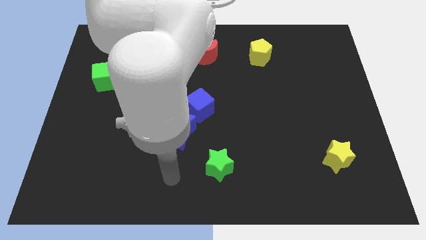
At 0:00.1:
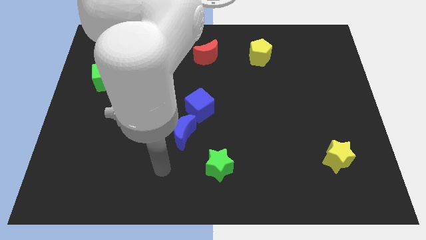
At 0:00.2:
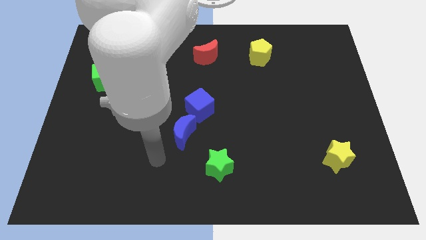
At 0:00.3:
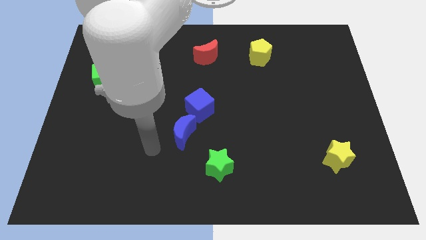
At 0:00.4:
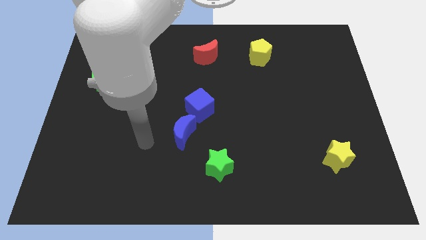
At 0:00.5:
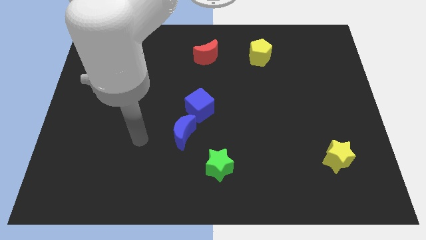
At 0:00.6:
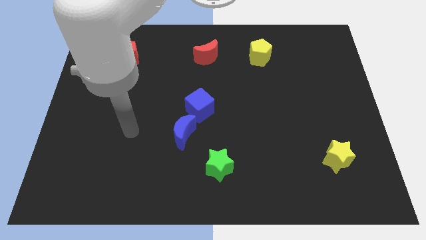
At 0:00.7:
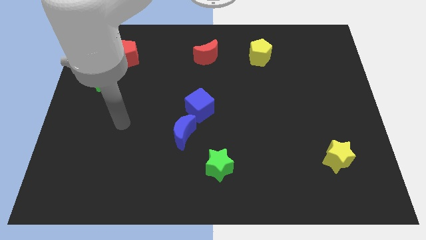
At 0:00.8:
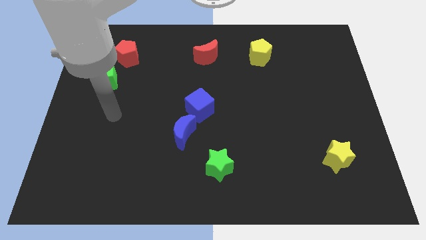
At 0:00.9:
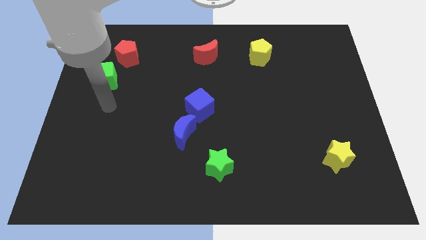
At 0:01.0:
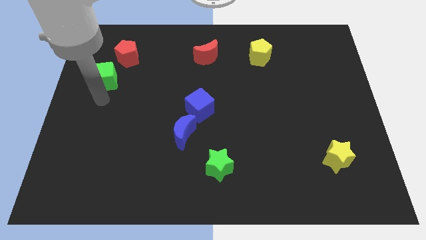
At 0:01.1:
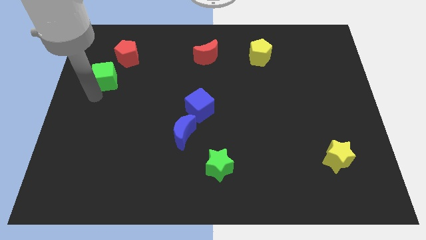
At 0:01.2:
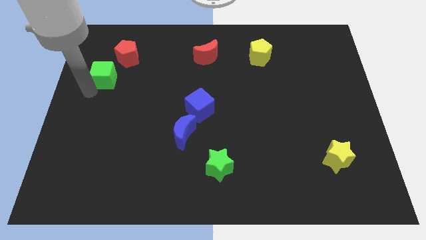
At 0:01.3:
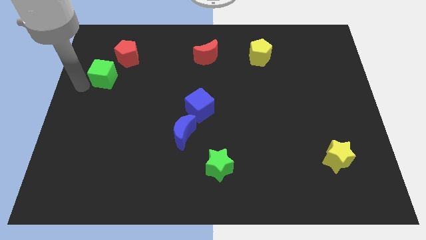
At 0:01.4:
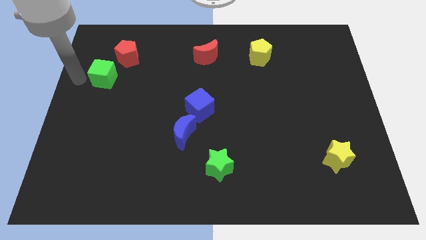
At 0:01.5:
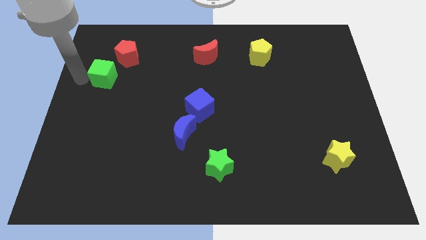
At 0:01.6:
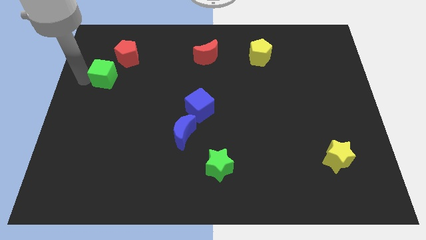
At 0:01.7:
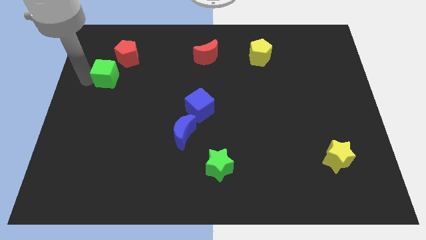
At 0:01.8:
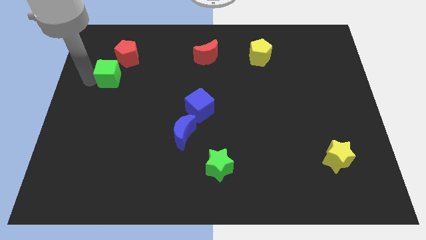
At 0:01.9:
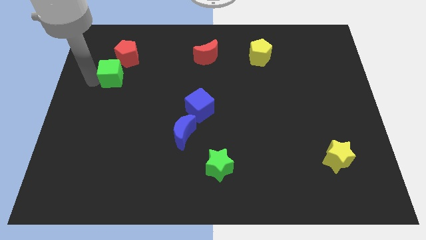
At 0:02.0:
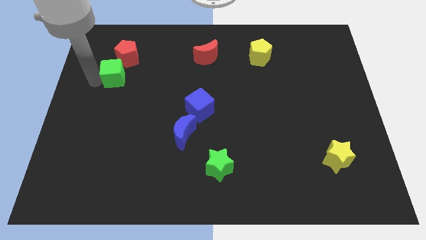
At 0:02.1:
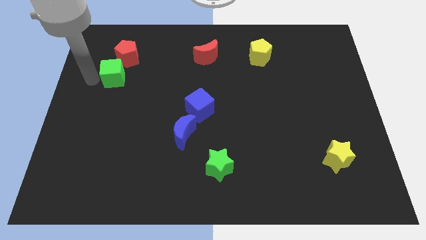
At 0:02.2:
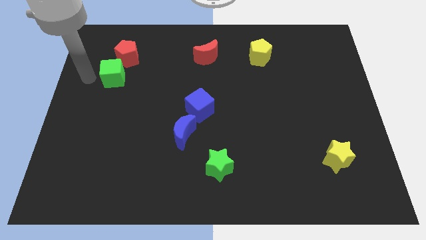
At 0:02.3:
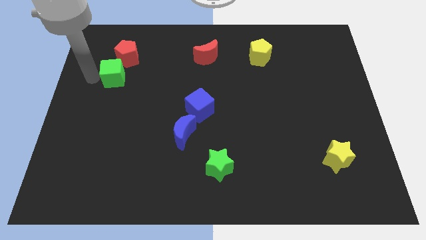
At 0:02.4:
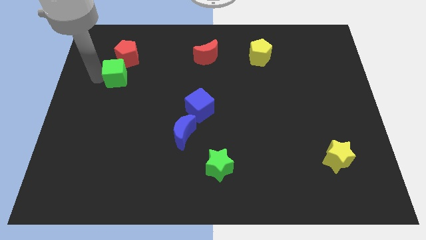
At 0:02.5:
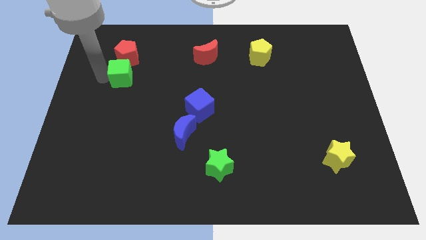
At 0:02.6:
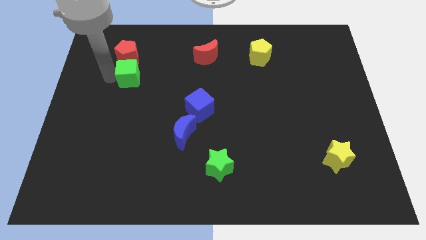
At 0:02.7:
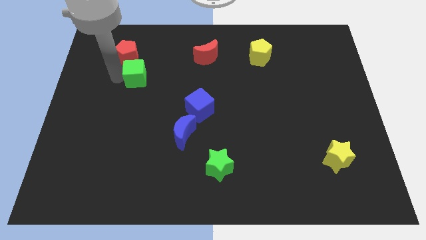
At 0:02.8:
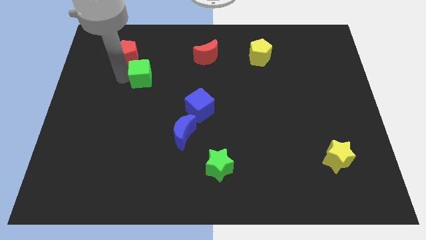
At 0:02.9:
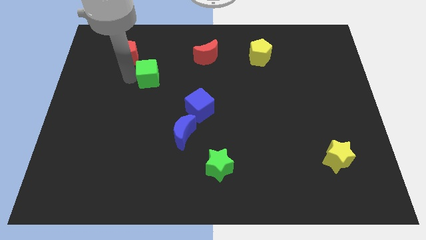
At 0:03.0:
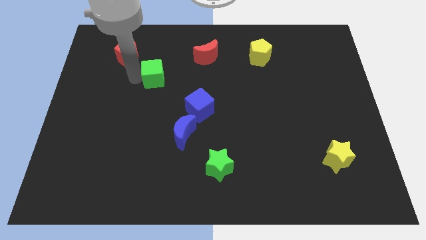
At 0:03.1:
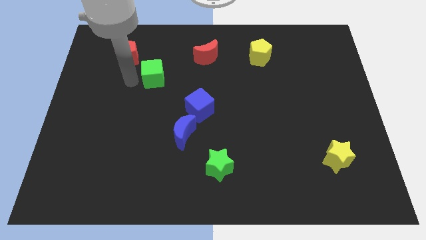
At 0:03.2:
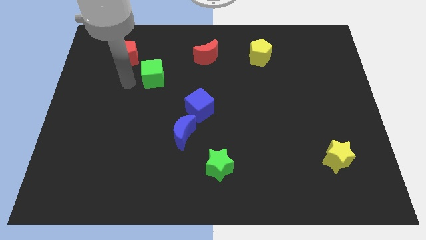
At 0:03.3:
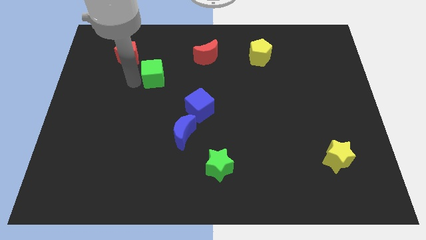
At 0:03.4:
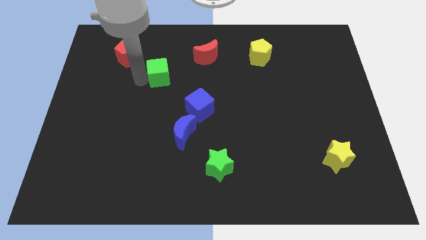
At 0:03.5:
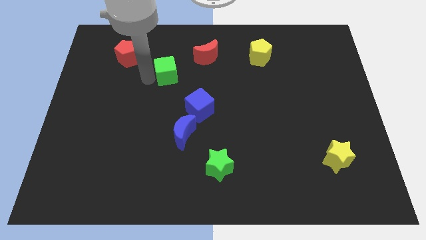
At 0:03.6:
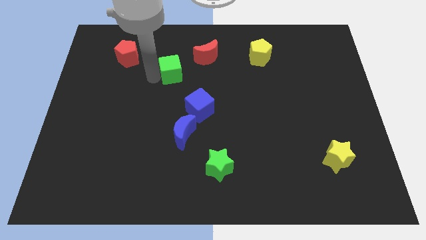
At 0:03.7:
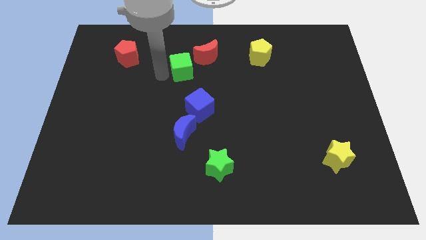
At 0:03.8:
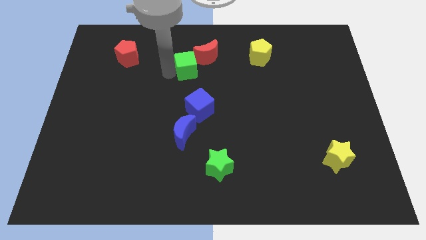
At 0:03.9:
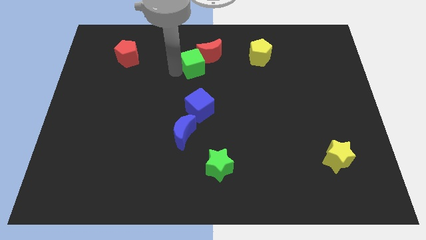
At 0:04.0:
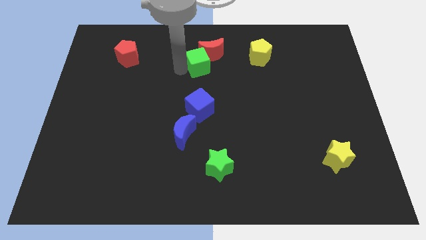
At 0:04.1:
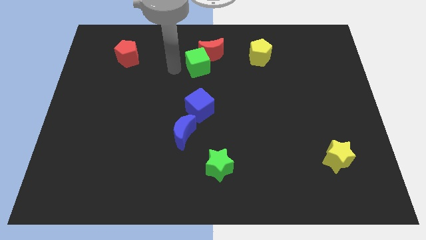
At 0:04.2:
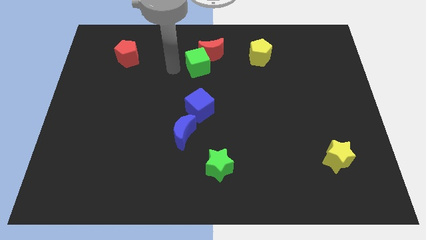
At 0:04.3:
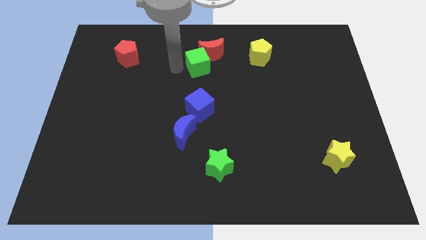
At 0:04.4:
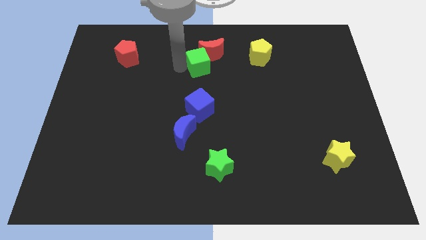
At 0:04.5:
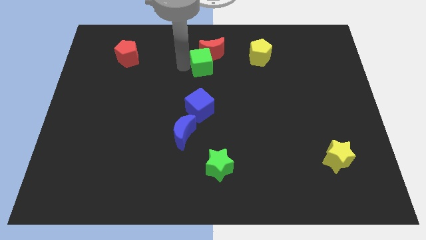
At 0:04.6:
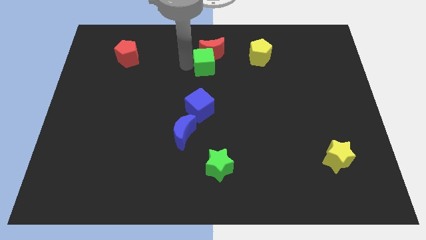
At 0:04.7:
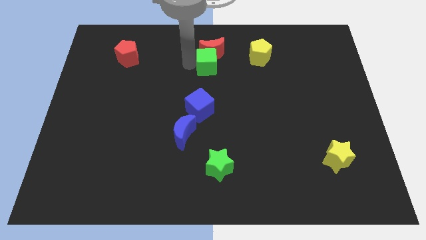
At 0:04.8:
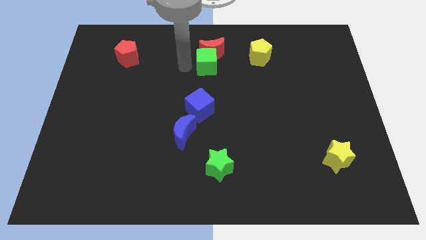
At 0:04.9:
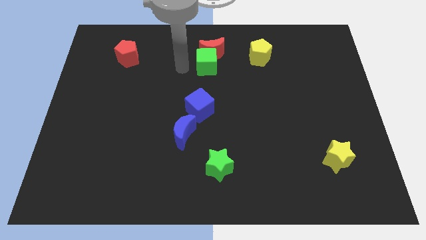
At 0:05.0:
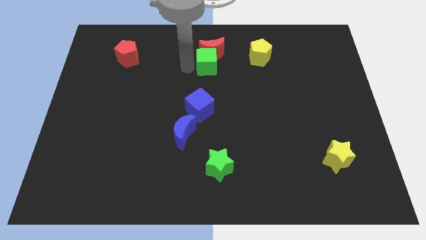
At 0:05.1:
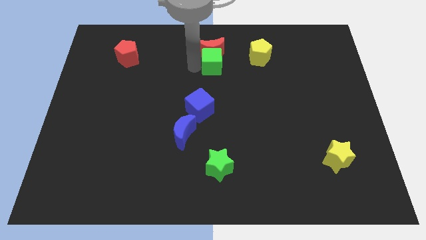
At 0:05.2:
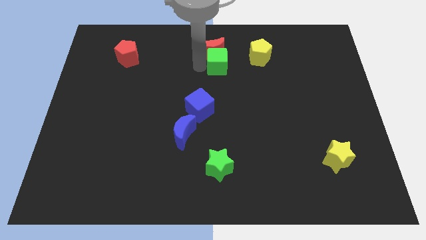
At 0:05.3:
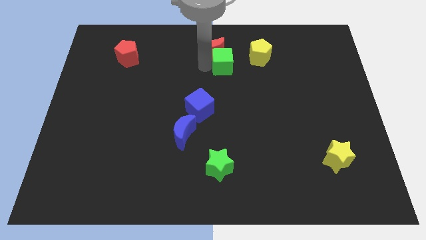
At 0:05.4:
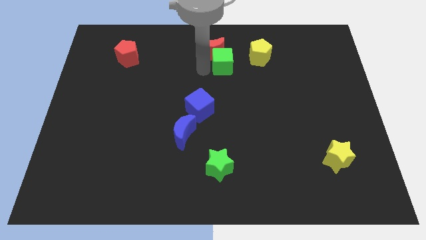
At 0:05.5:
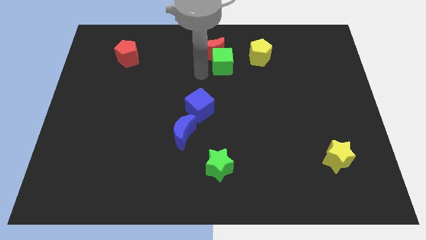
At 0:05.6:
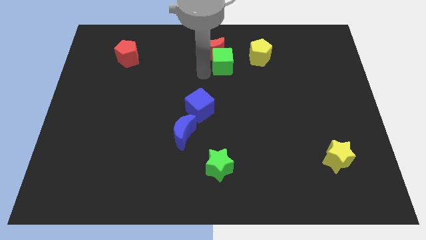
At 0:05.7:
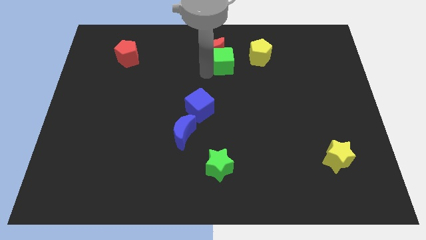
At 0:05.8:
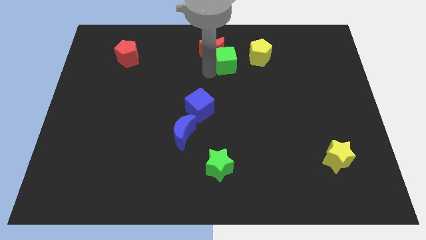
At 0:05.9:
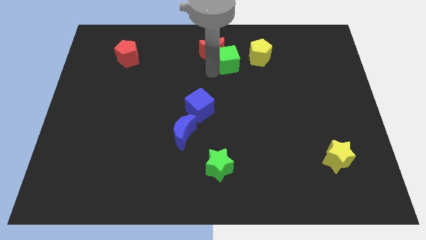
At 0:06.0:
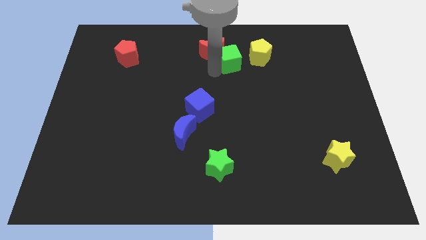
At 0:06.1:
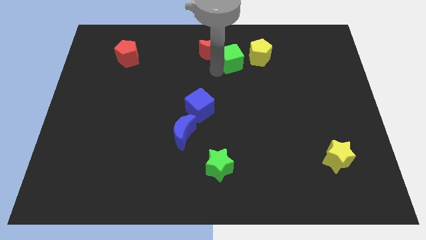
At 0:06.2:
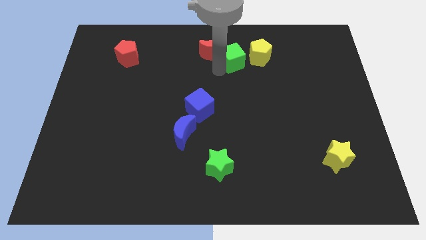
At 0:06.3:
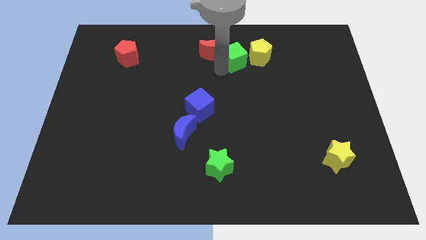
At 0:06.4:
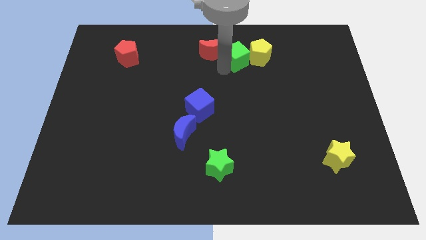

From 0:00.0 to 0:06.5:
slide the green cube towards the yellow pentagon

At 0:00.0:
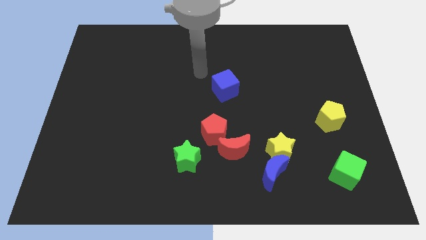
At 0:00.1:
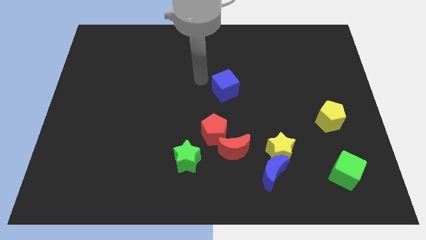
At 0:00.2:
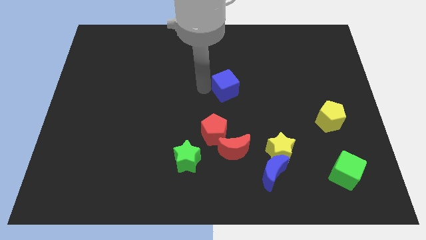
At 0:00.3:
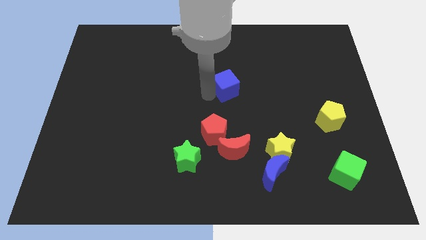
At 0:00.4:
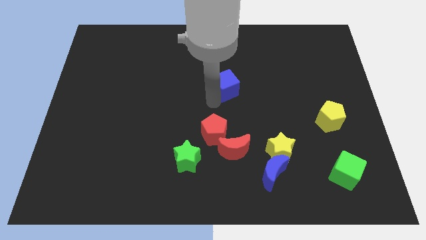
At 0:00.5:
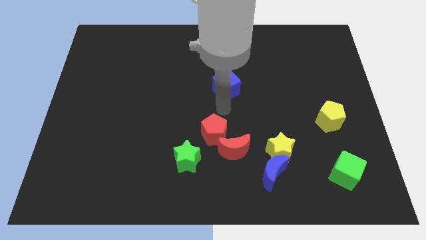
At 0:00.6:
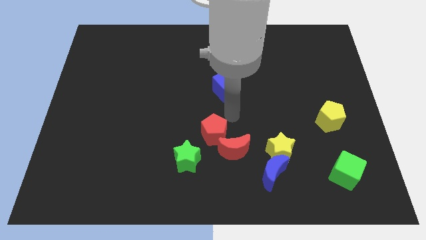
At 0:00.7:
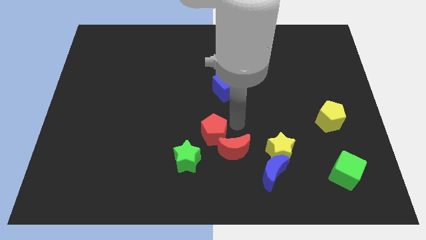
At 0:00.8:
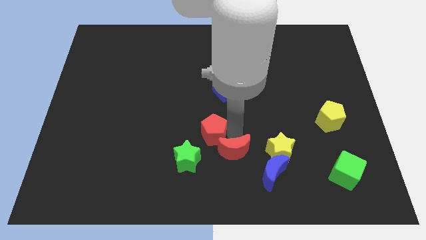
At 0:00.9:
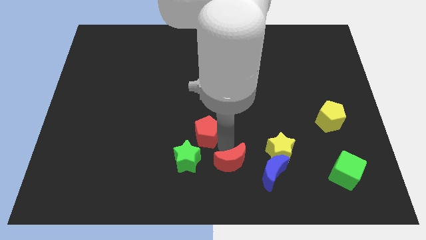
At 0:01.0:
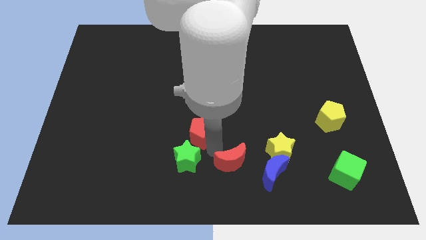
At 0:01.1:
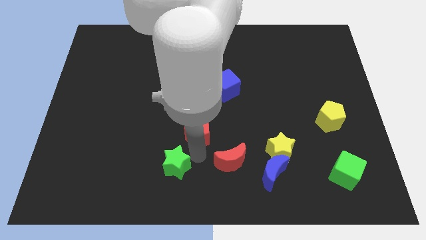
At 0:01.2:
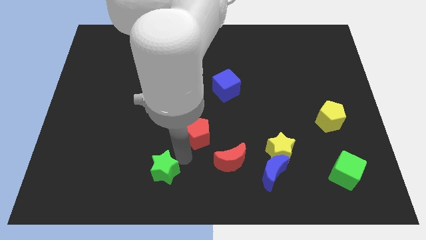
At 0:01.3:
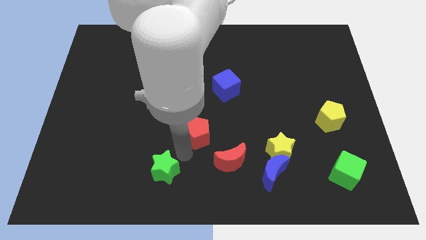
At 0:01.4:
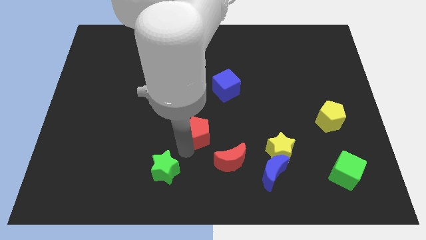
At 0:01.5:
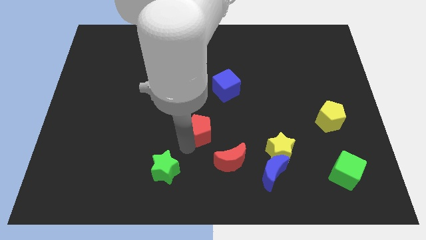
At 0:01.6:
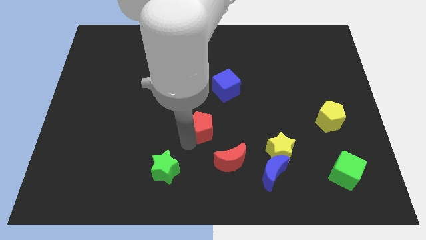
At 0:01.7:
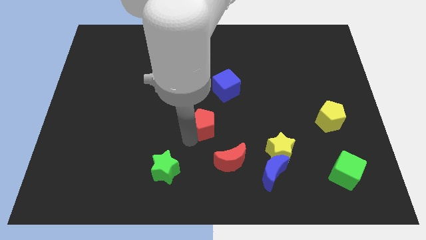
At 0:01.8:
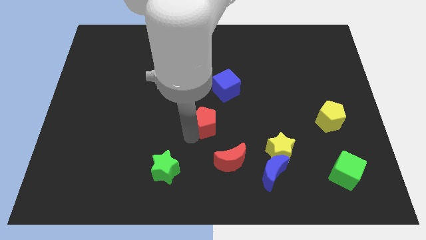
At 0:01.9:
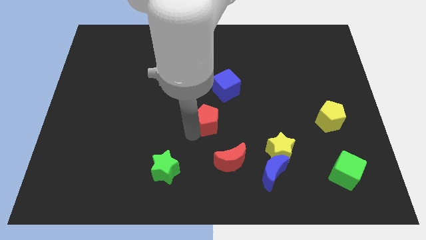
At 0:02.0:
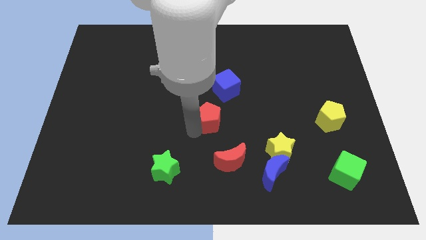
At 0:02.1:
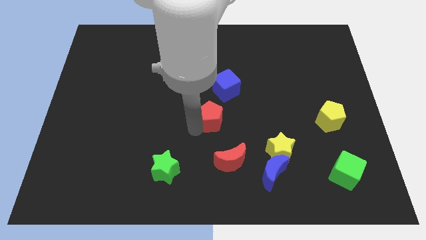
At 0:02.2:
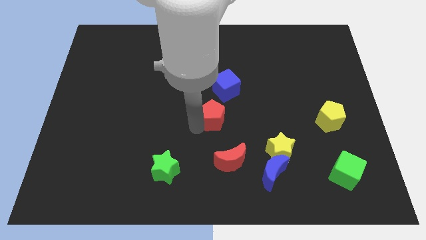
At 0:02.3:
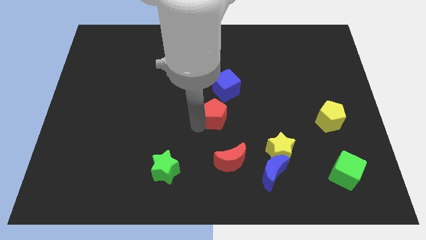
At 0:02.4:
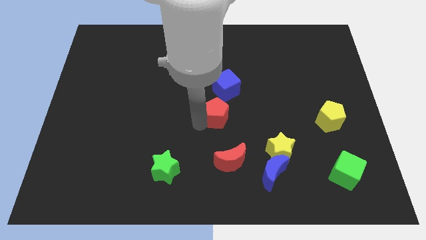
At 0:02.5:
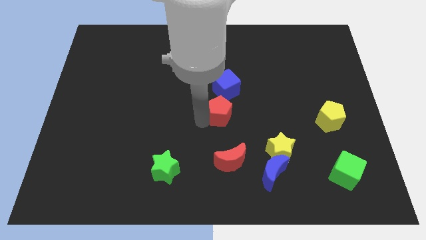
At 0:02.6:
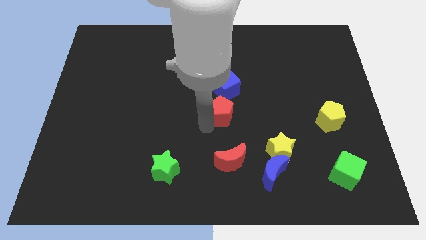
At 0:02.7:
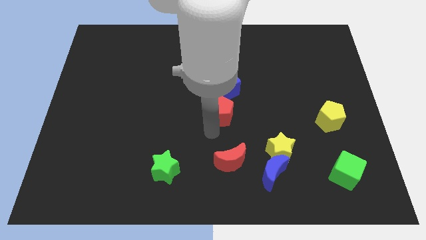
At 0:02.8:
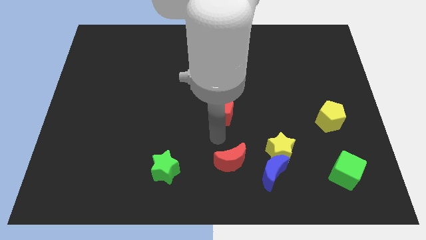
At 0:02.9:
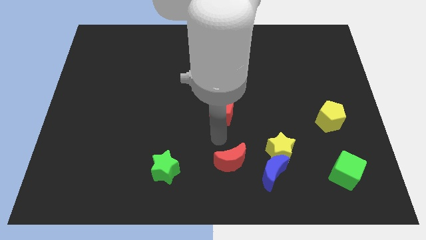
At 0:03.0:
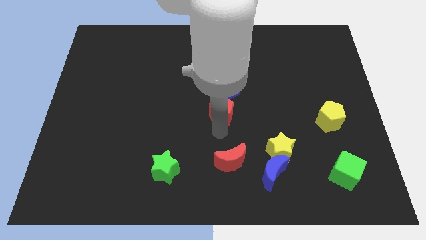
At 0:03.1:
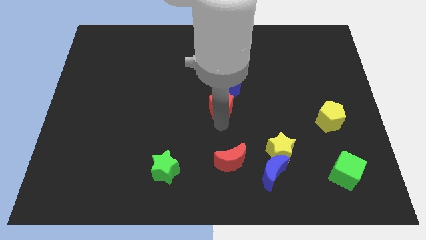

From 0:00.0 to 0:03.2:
slide the red pentagon next to the blue cube
